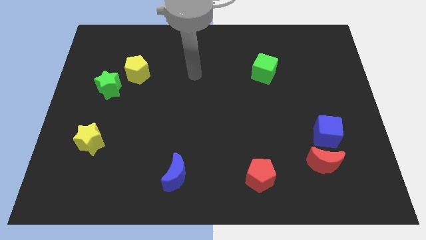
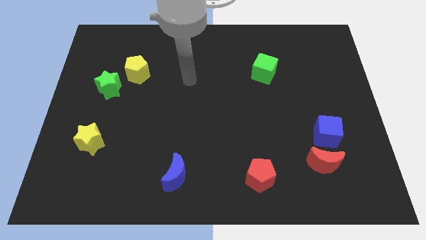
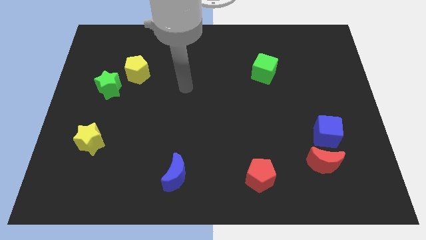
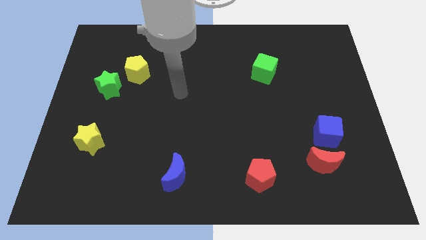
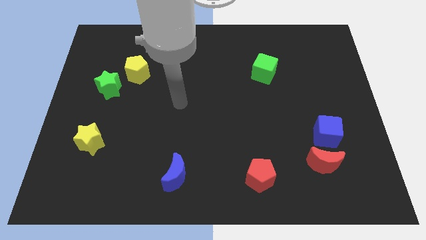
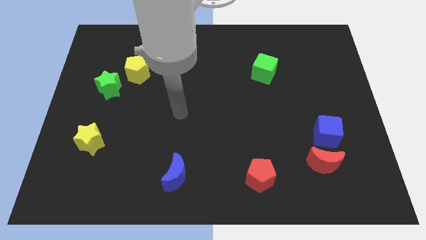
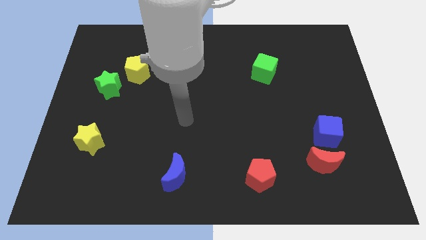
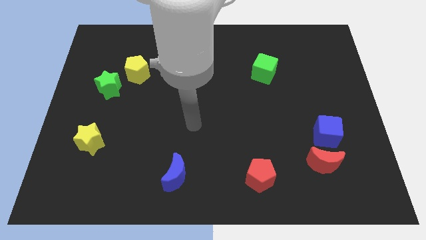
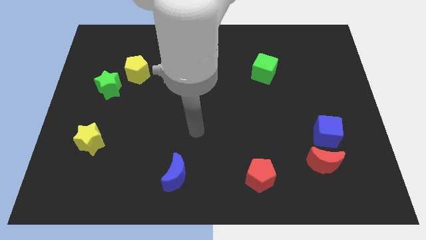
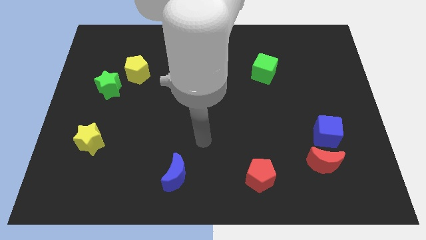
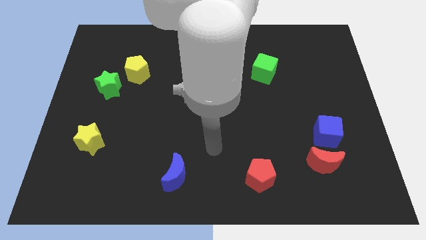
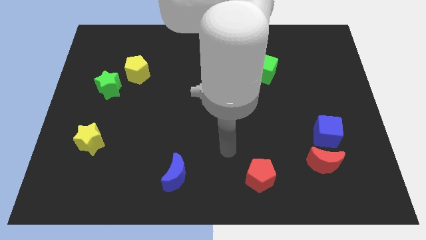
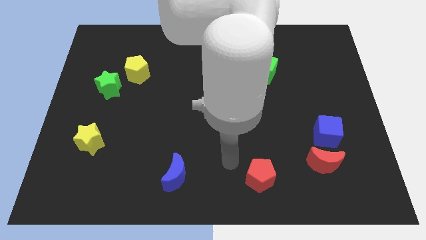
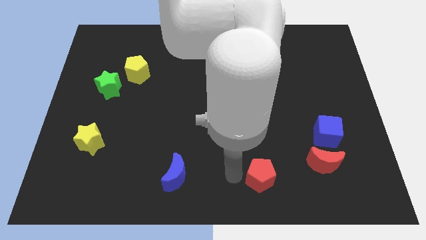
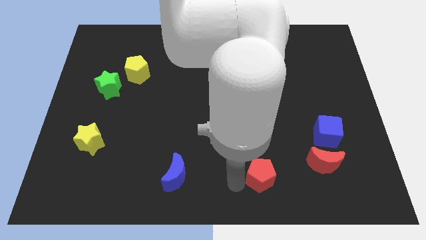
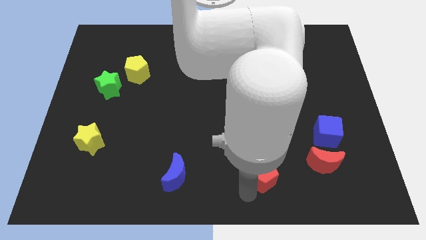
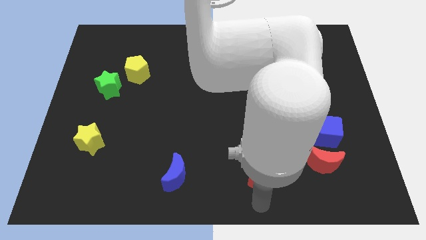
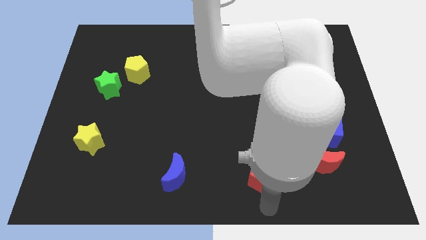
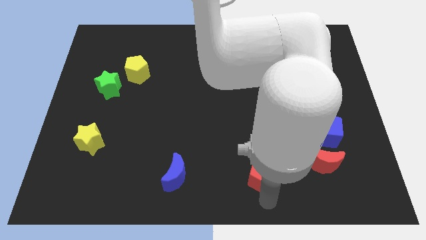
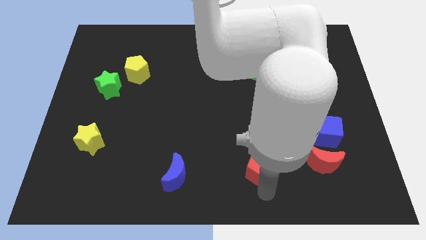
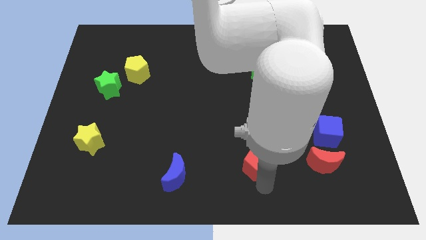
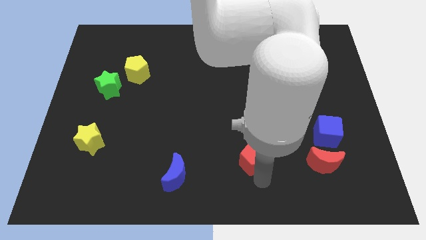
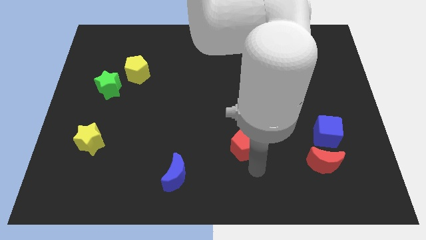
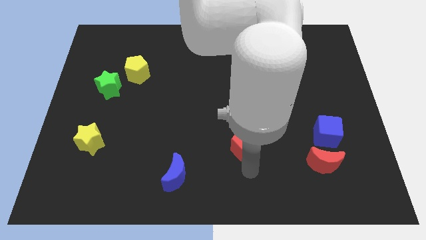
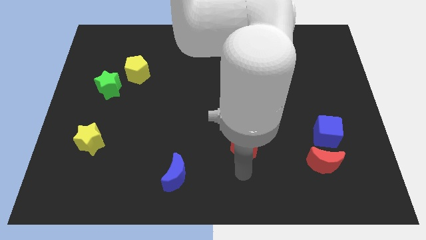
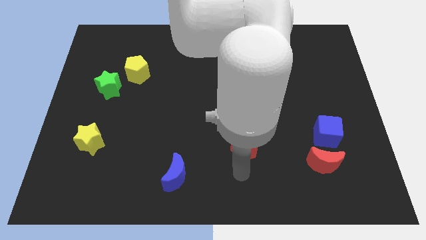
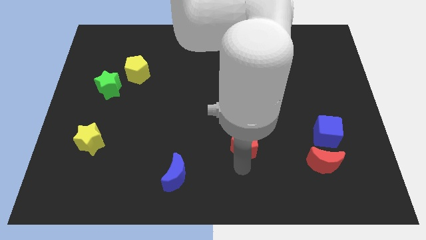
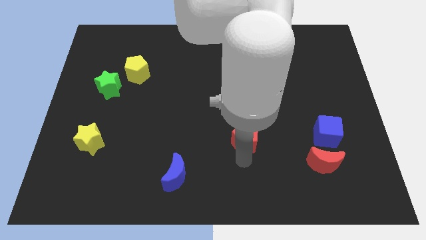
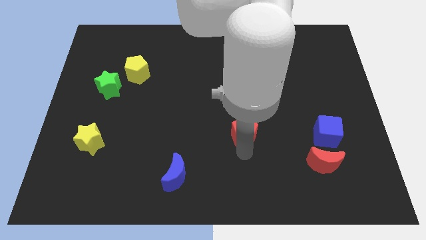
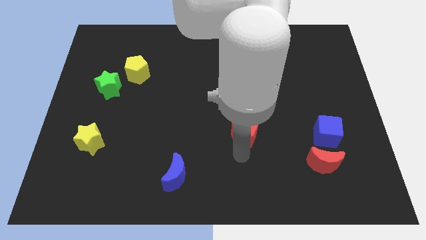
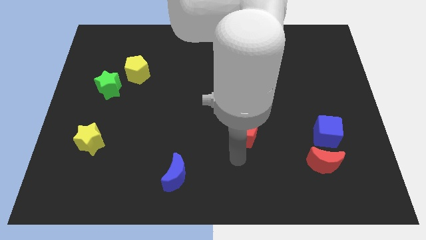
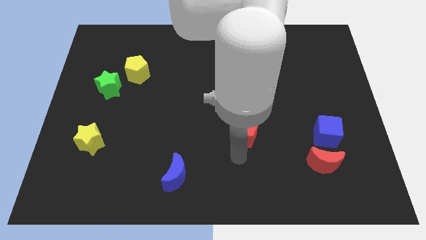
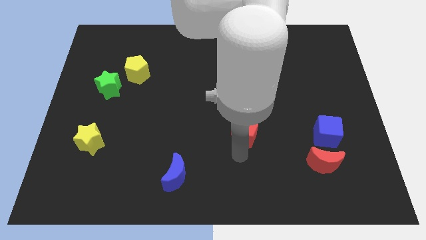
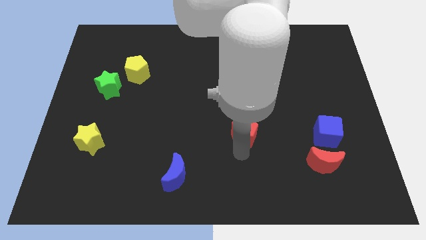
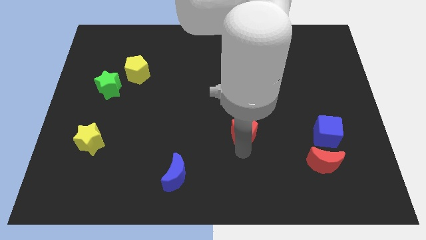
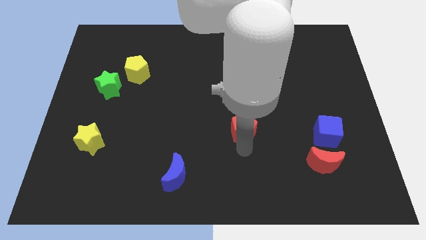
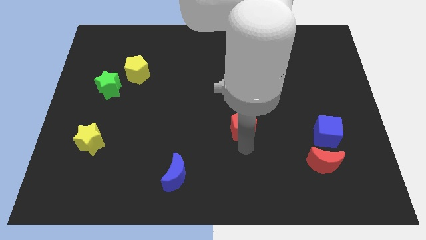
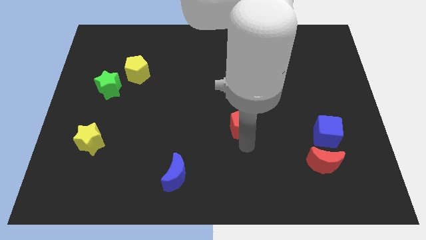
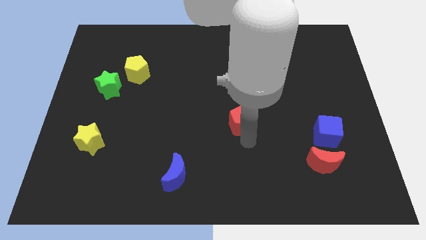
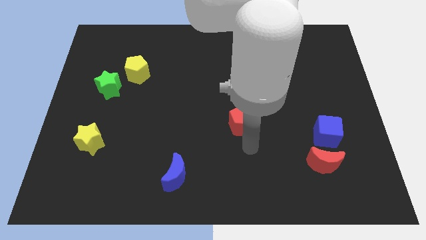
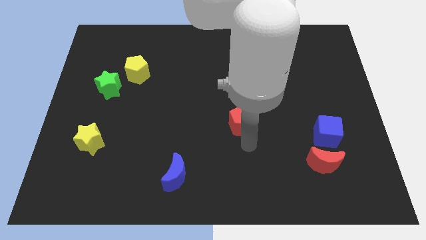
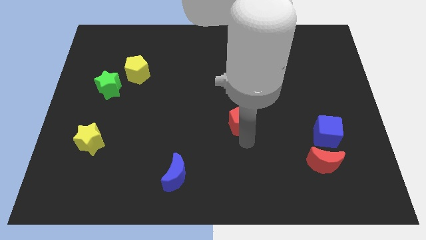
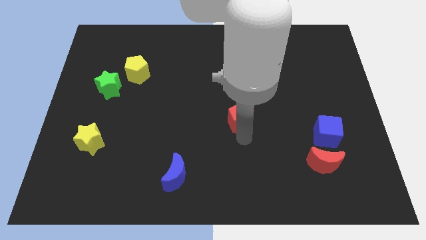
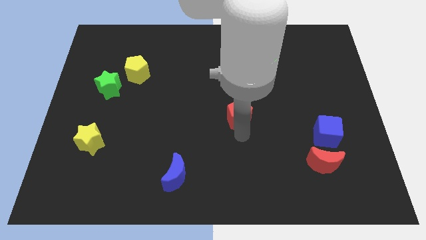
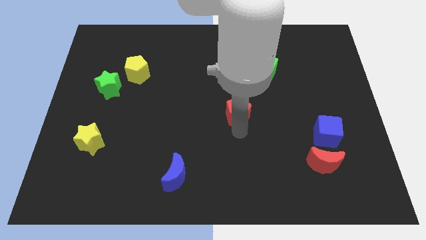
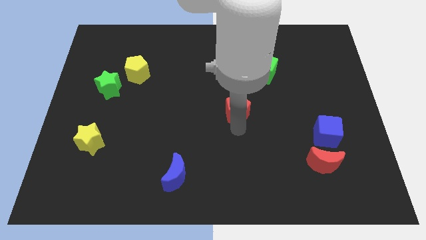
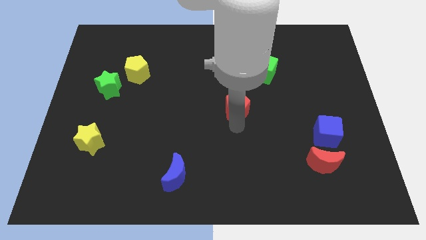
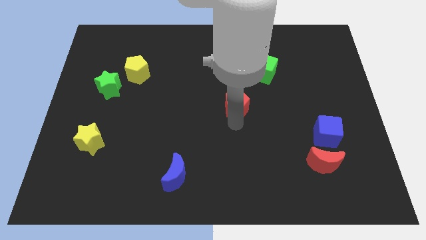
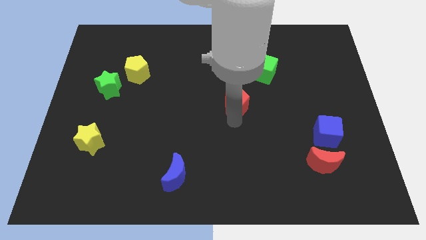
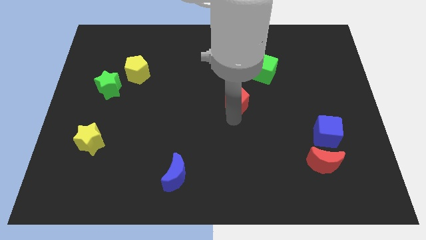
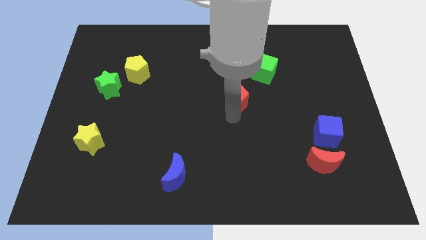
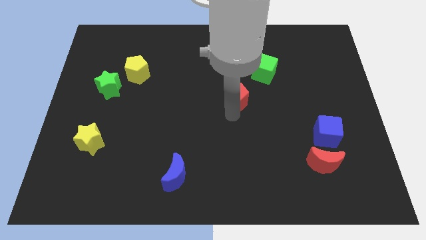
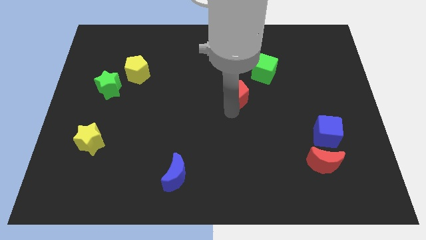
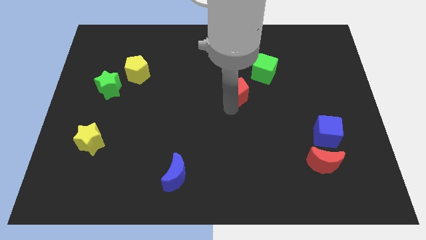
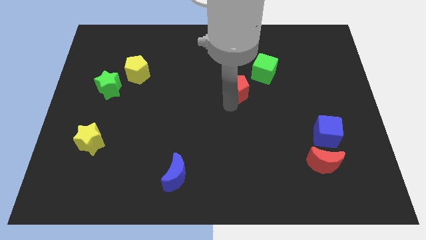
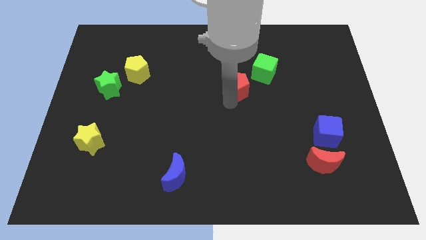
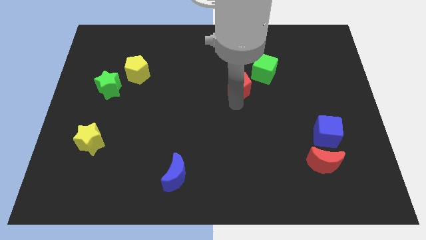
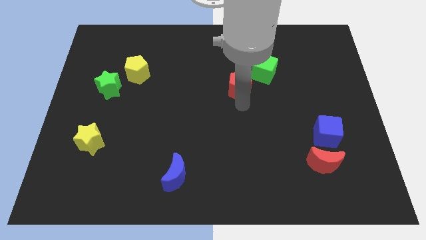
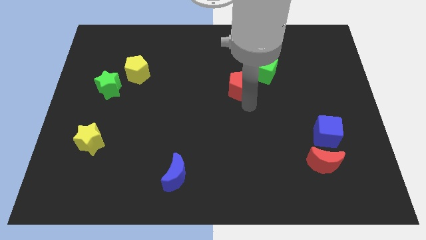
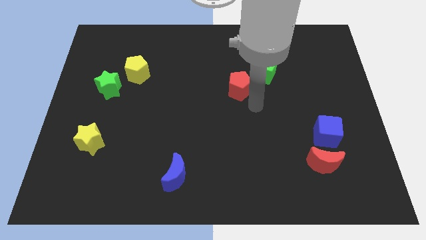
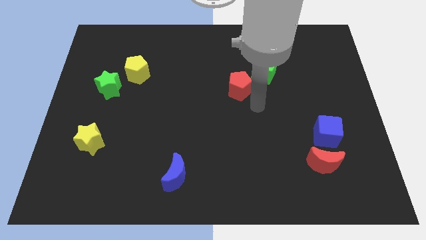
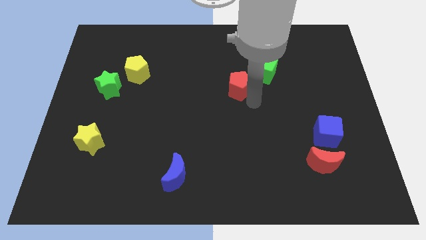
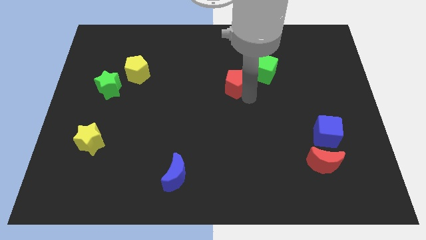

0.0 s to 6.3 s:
slide the red pentagon to the left of the green cube

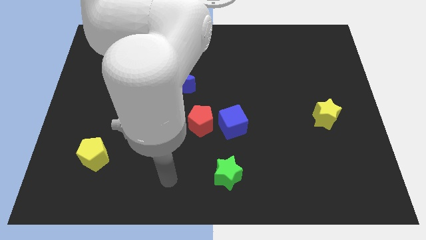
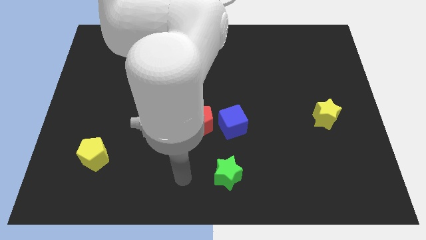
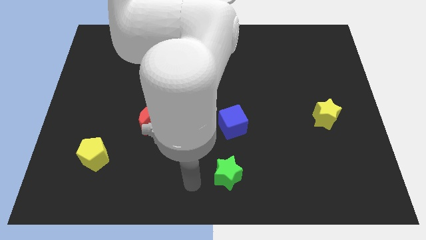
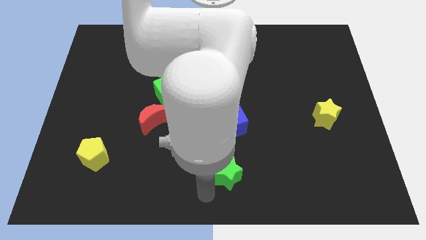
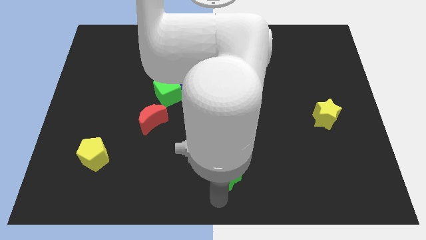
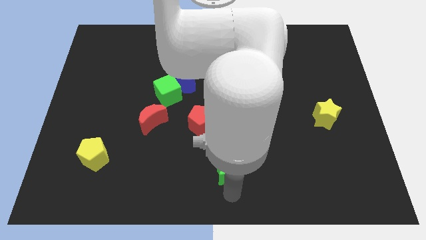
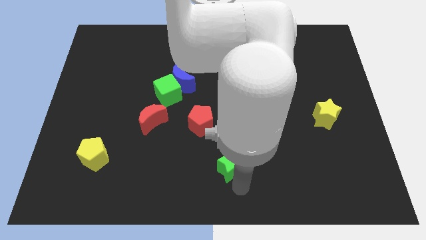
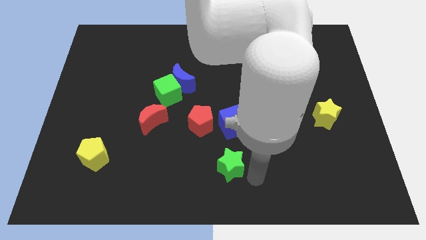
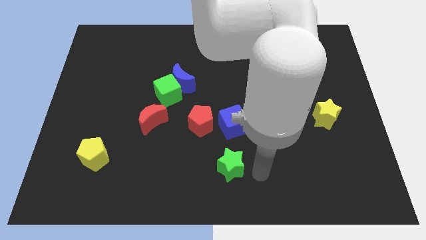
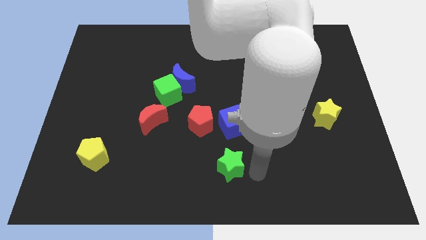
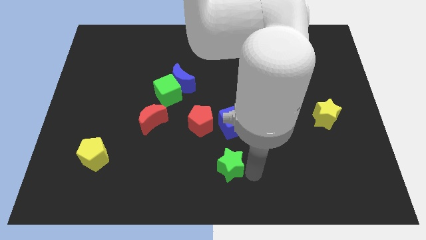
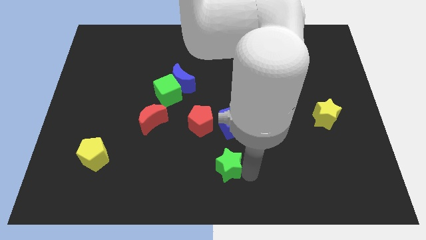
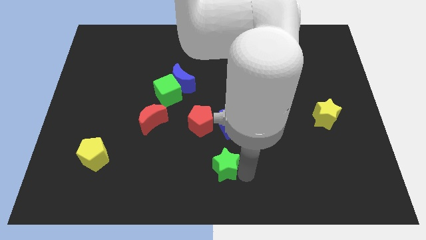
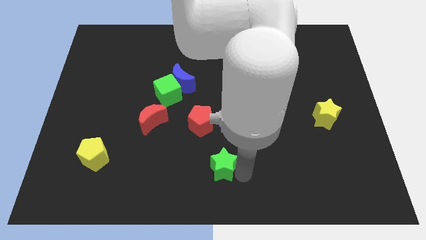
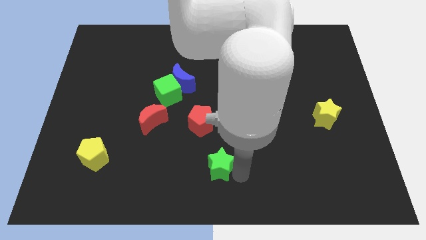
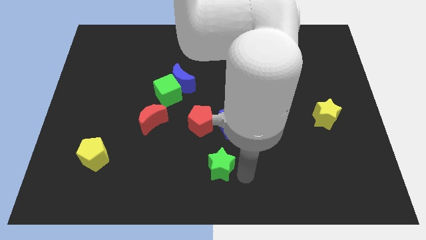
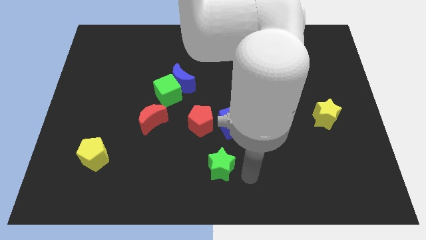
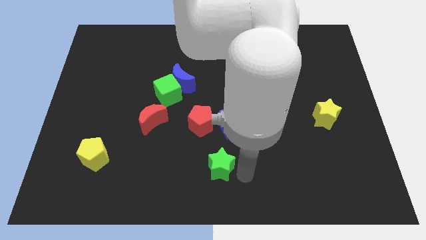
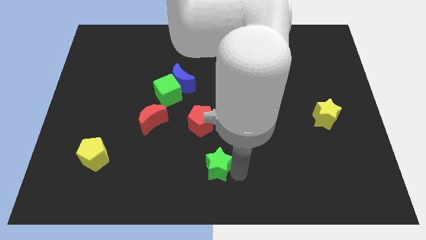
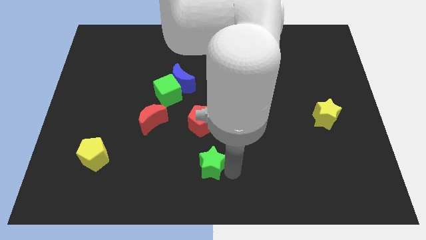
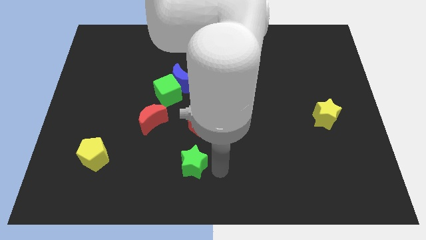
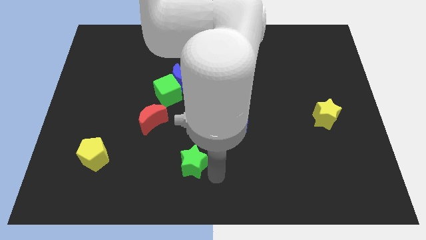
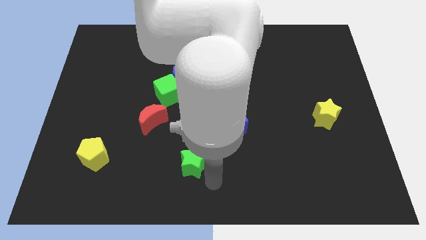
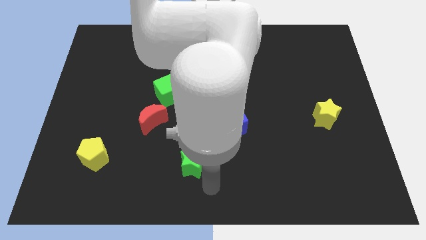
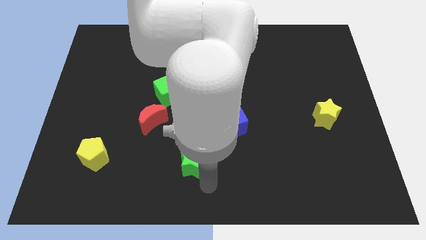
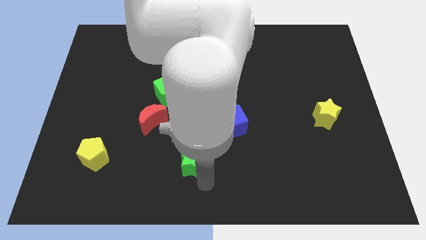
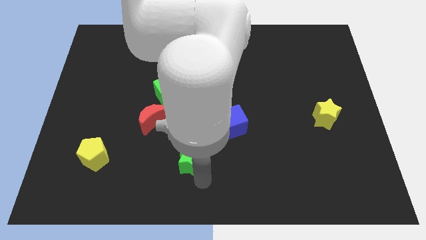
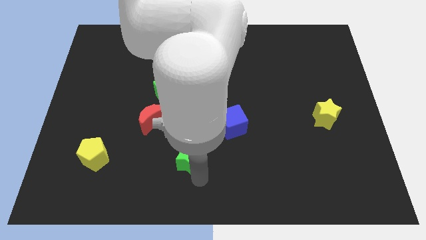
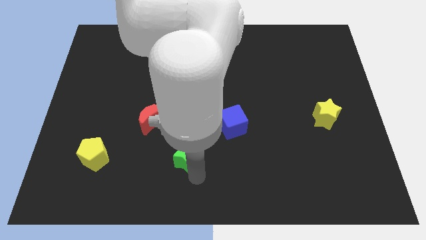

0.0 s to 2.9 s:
slide the green star diagonally down and to the right of the red moon
